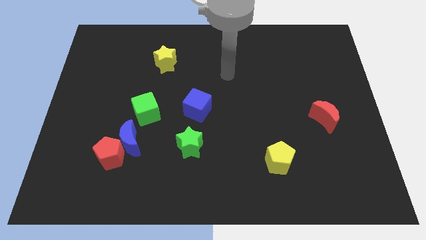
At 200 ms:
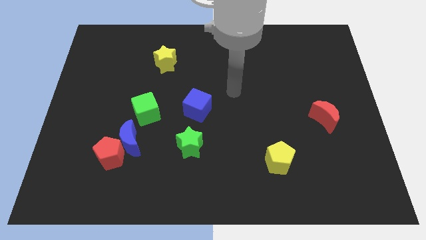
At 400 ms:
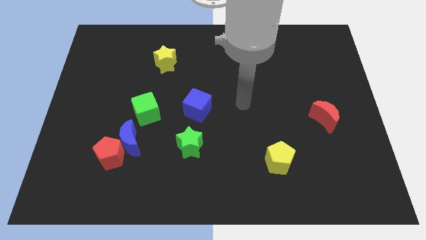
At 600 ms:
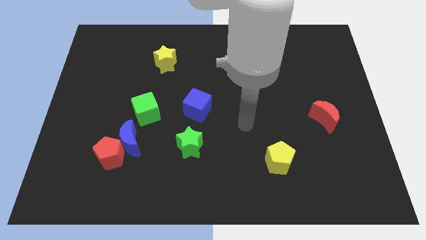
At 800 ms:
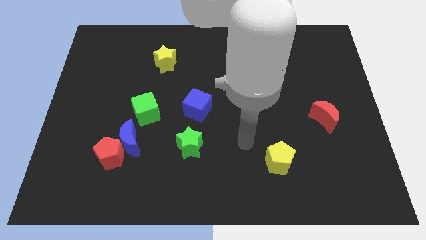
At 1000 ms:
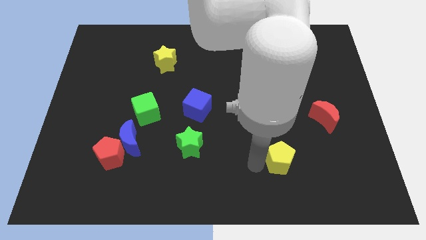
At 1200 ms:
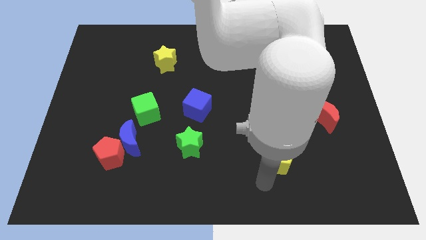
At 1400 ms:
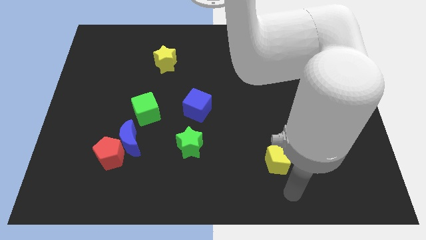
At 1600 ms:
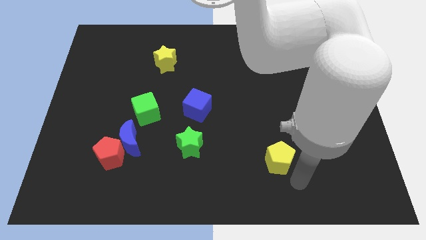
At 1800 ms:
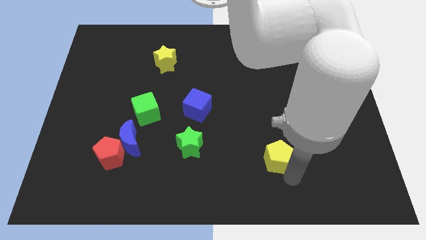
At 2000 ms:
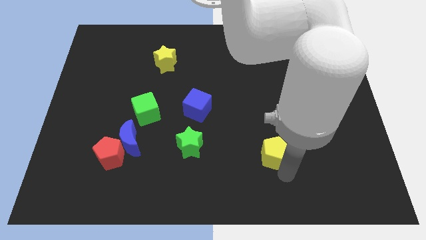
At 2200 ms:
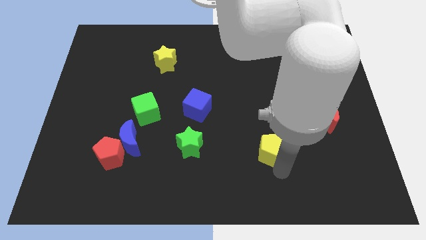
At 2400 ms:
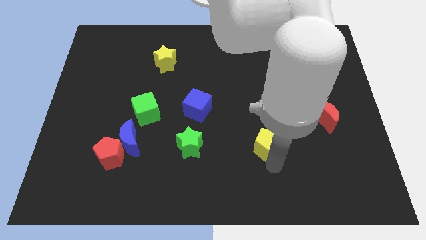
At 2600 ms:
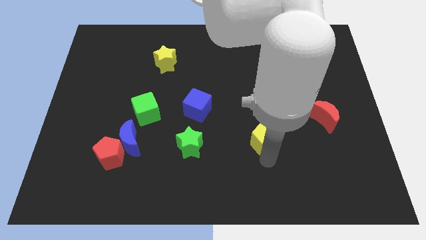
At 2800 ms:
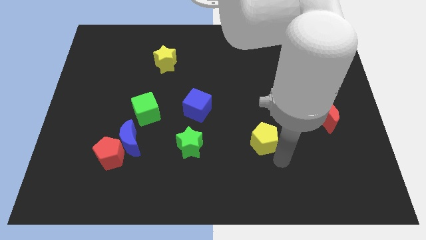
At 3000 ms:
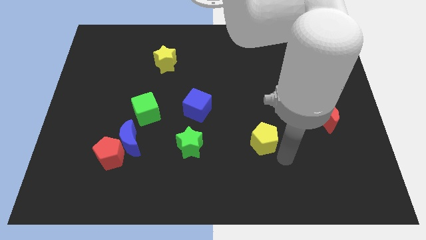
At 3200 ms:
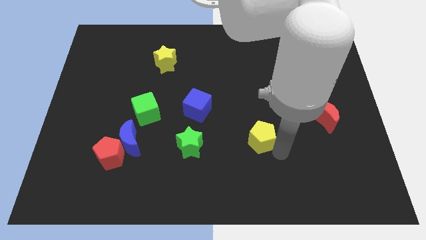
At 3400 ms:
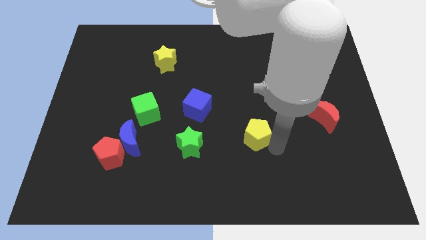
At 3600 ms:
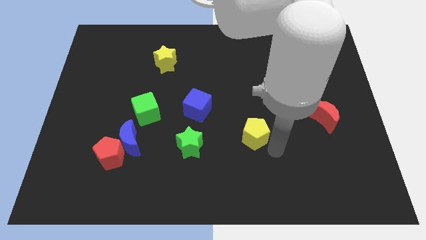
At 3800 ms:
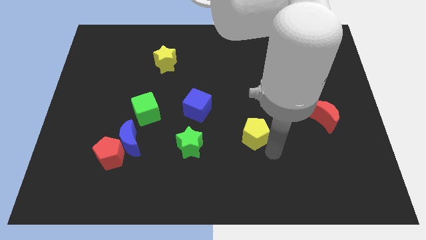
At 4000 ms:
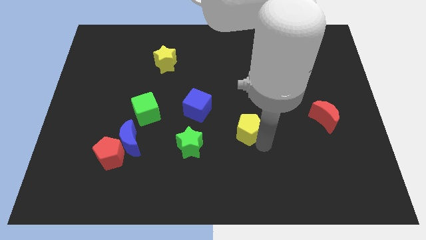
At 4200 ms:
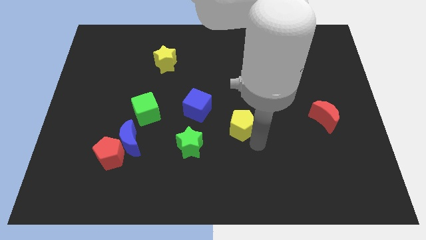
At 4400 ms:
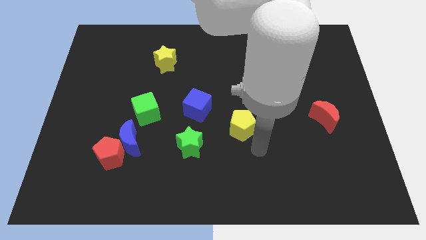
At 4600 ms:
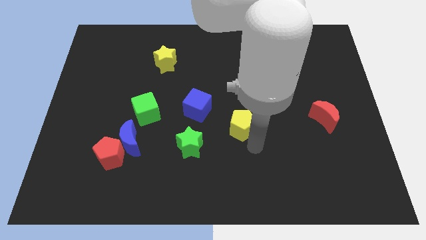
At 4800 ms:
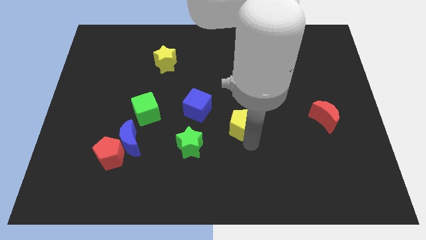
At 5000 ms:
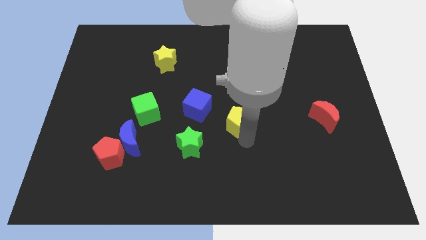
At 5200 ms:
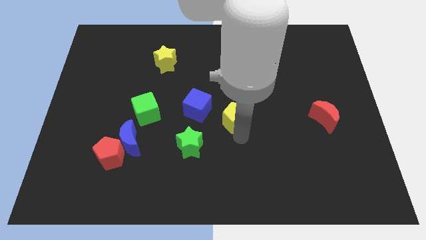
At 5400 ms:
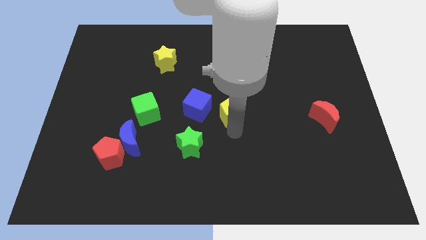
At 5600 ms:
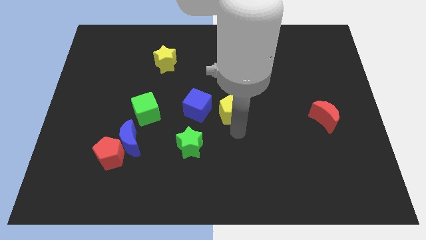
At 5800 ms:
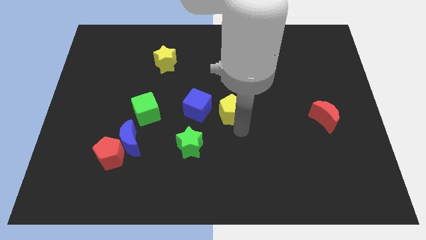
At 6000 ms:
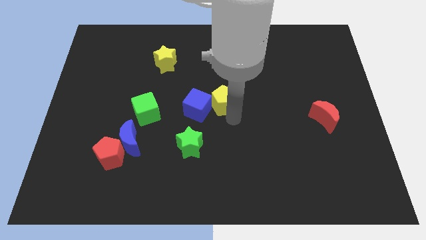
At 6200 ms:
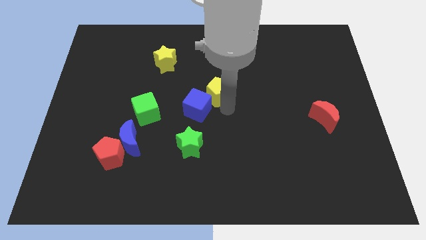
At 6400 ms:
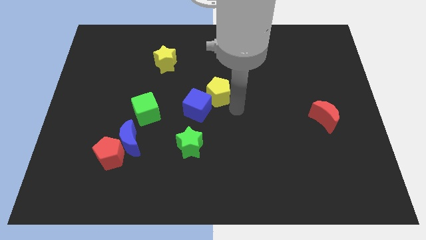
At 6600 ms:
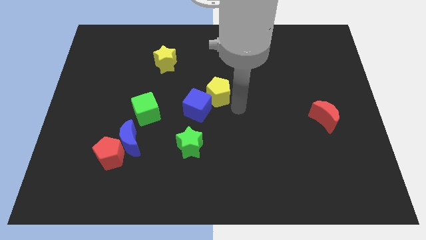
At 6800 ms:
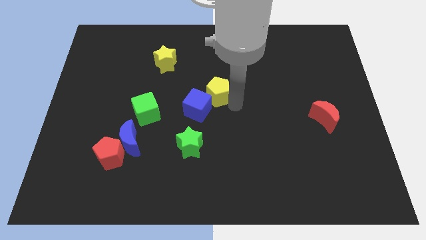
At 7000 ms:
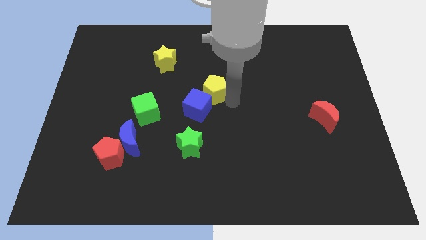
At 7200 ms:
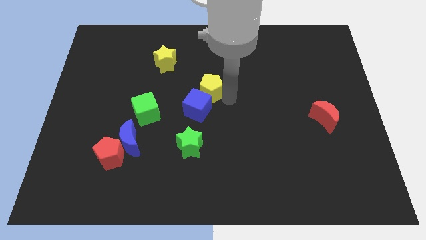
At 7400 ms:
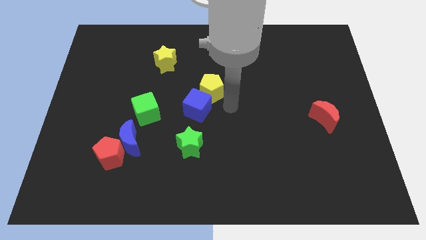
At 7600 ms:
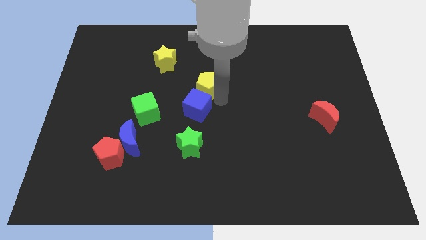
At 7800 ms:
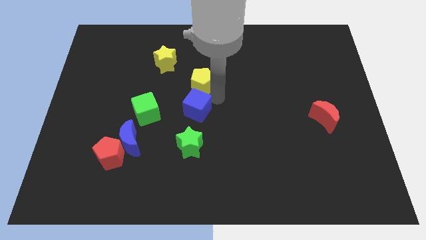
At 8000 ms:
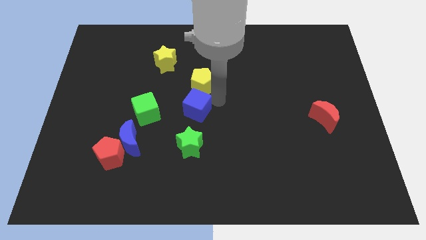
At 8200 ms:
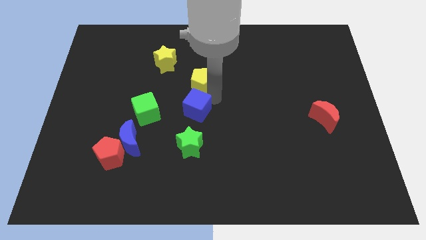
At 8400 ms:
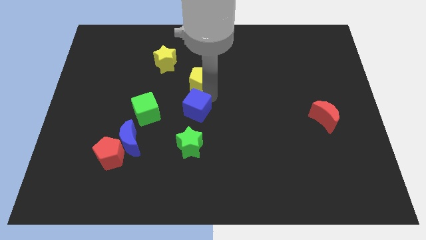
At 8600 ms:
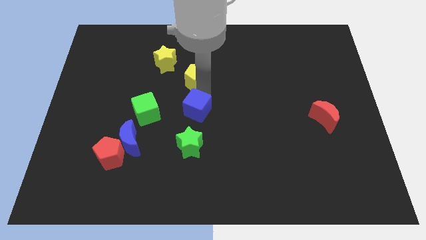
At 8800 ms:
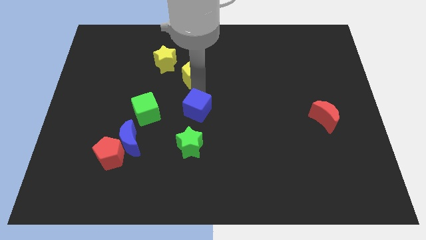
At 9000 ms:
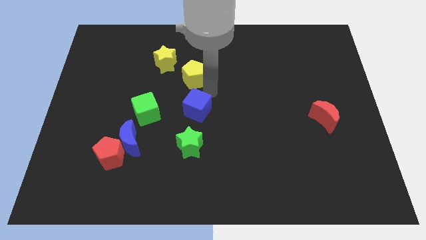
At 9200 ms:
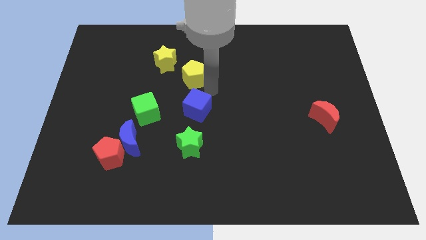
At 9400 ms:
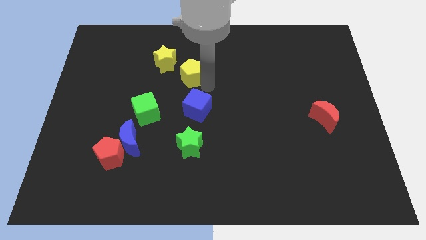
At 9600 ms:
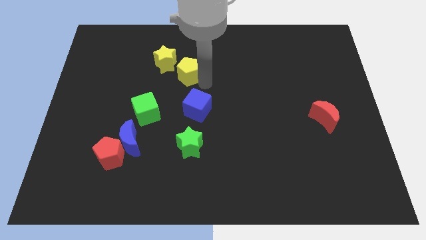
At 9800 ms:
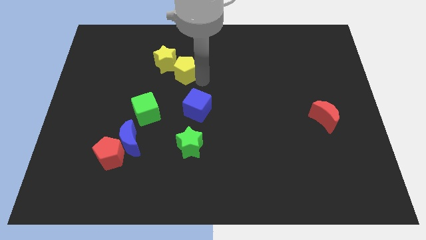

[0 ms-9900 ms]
move the yellow pentagon to the yellow star

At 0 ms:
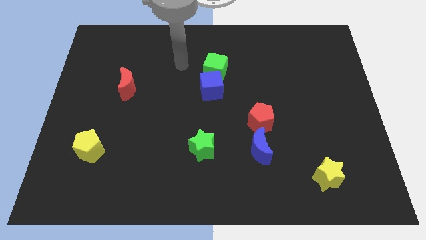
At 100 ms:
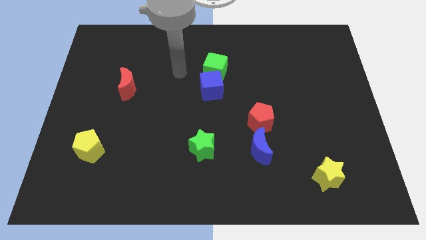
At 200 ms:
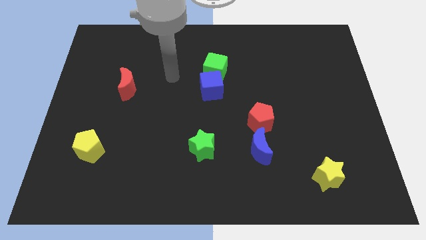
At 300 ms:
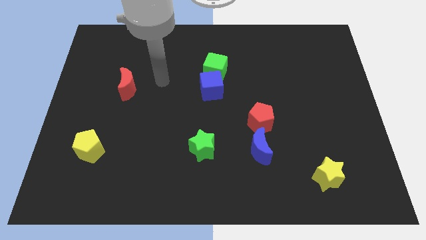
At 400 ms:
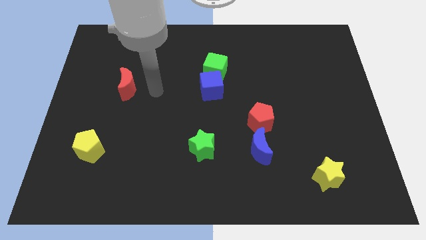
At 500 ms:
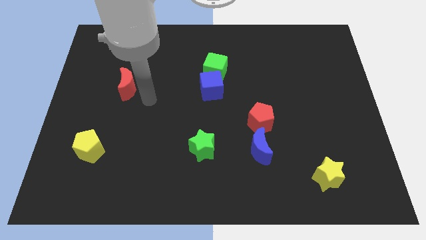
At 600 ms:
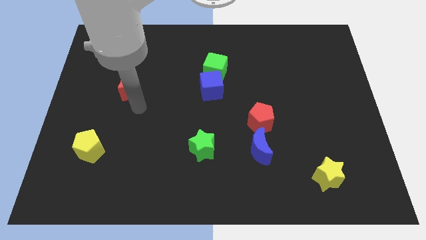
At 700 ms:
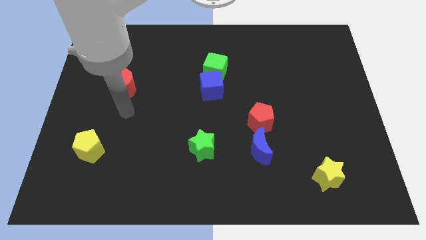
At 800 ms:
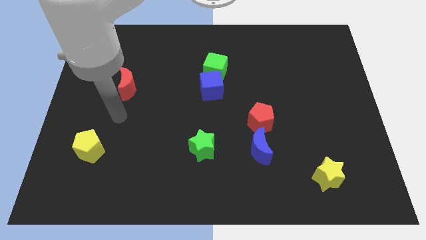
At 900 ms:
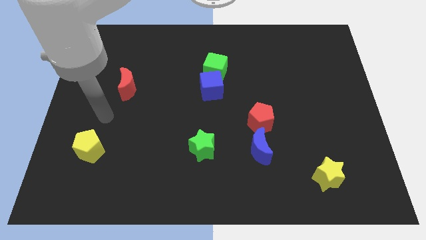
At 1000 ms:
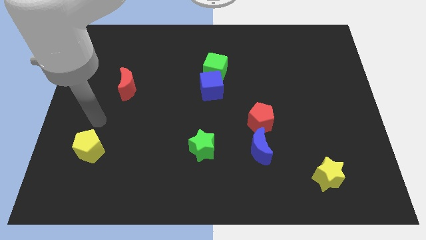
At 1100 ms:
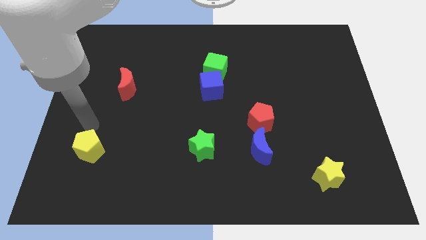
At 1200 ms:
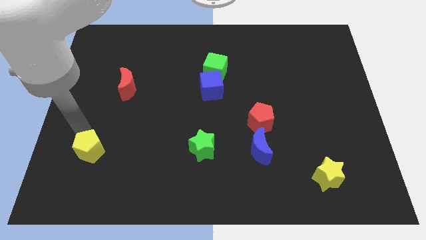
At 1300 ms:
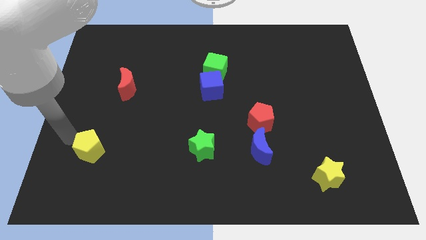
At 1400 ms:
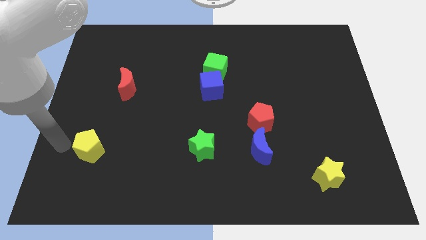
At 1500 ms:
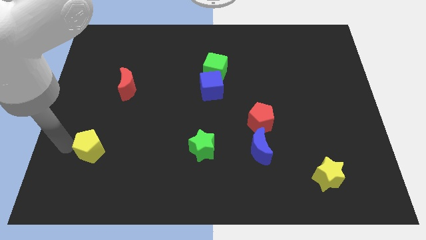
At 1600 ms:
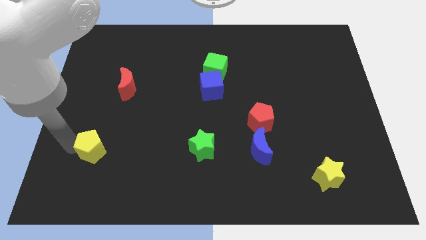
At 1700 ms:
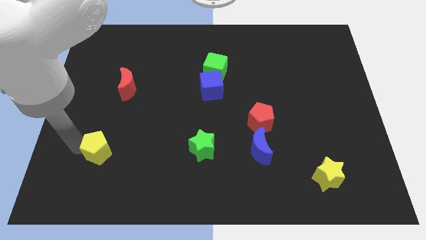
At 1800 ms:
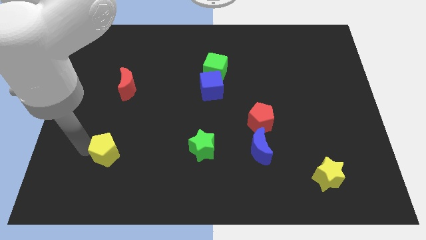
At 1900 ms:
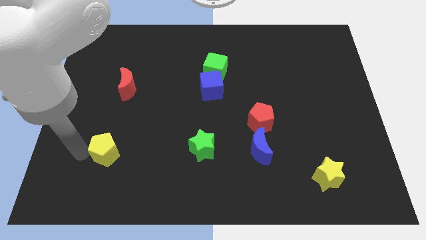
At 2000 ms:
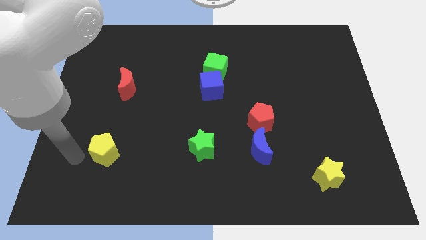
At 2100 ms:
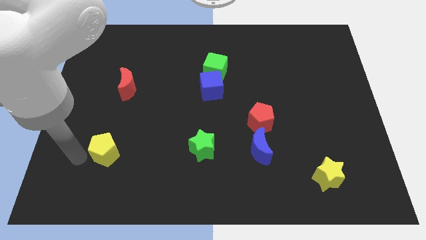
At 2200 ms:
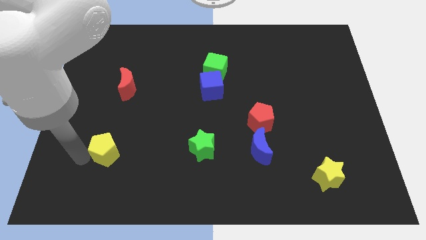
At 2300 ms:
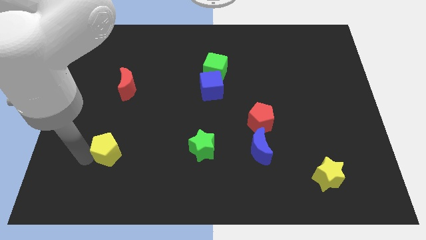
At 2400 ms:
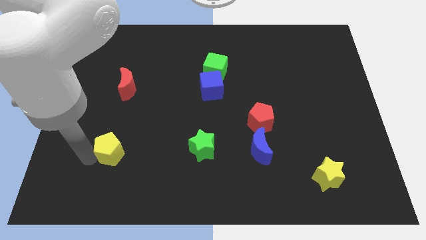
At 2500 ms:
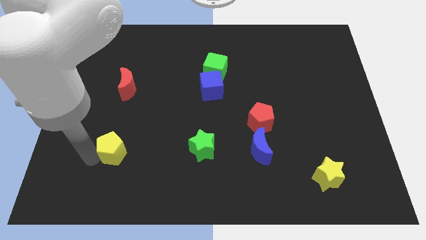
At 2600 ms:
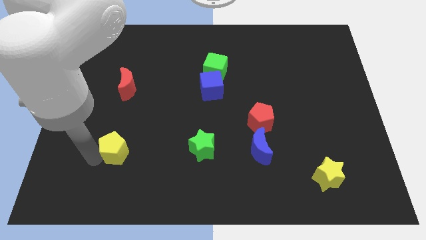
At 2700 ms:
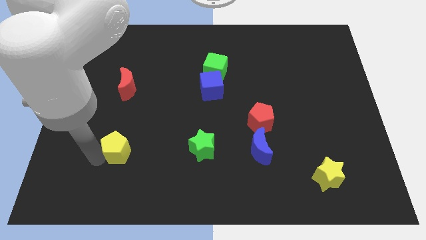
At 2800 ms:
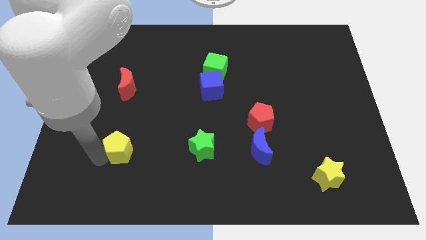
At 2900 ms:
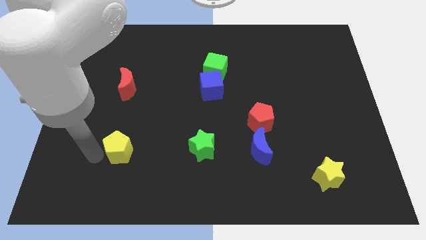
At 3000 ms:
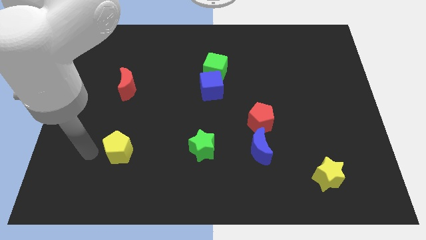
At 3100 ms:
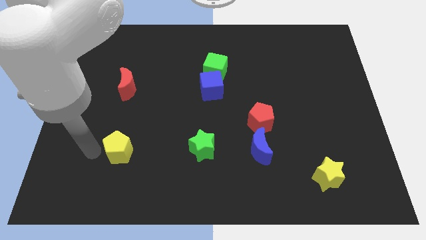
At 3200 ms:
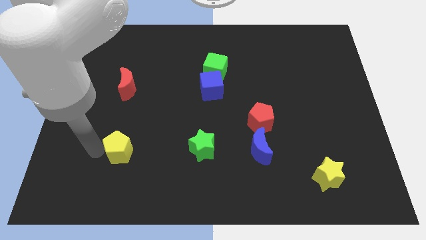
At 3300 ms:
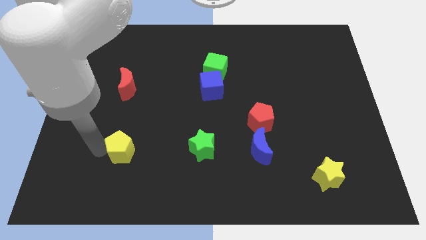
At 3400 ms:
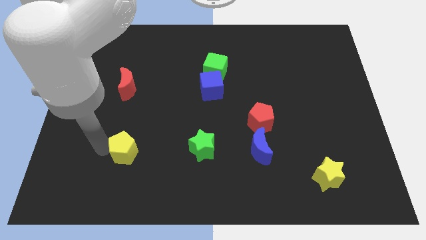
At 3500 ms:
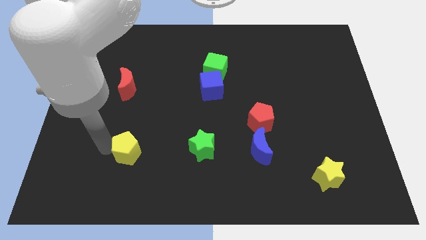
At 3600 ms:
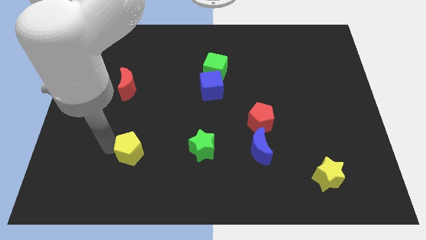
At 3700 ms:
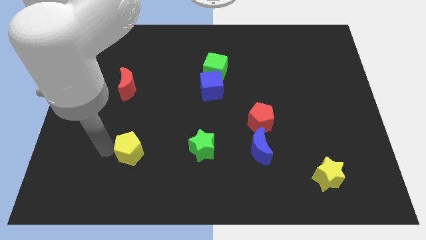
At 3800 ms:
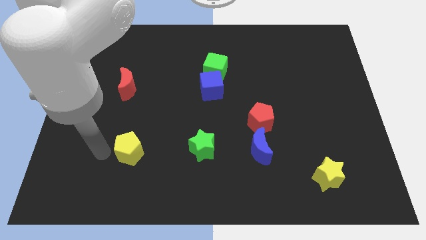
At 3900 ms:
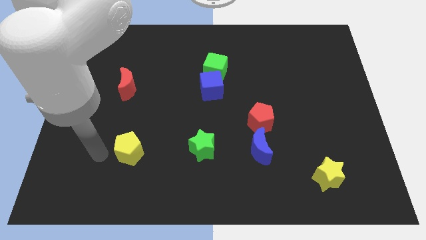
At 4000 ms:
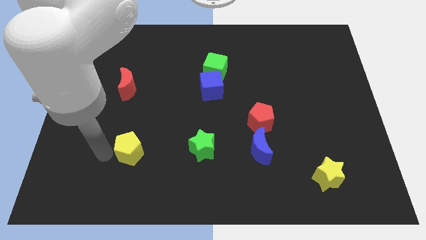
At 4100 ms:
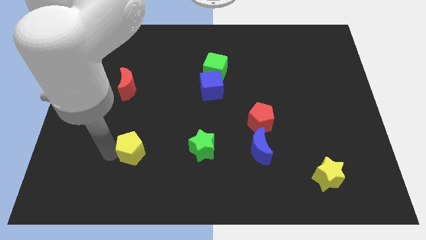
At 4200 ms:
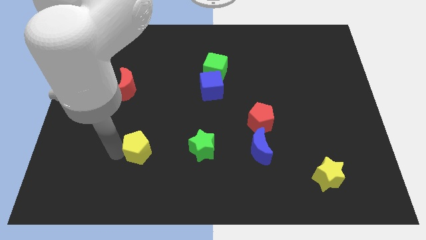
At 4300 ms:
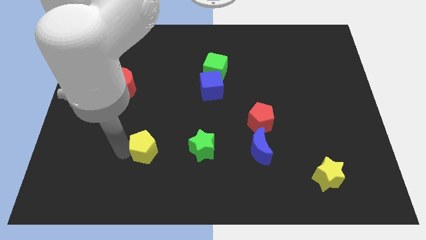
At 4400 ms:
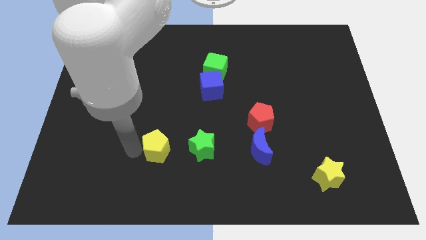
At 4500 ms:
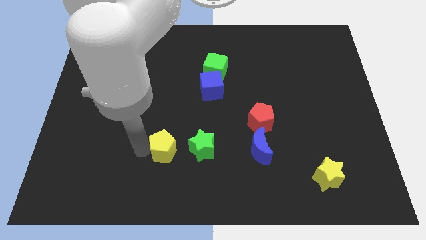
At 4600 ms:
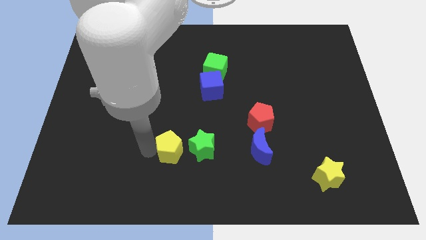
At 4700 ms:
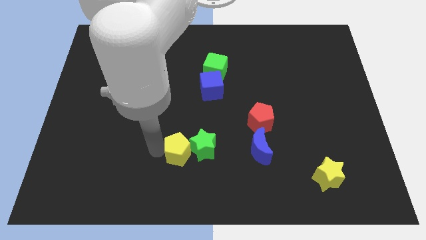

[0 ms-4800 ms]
slide the yellow pentagon towards the green star
